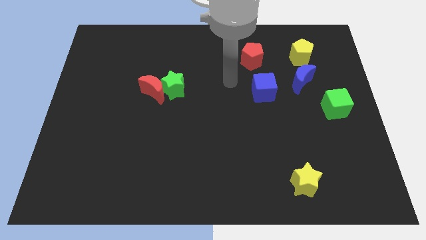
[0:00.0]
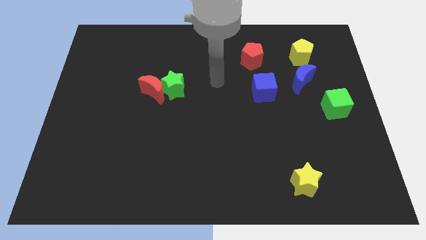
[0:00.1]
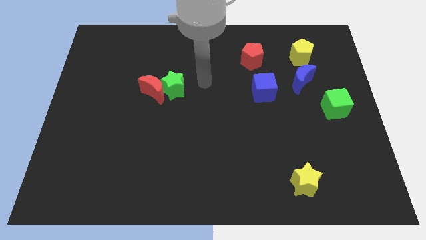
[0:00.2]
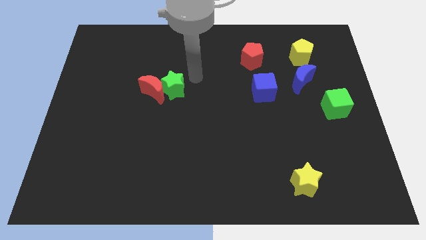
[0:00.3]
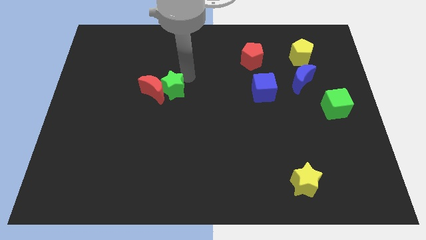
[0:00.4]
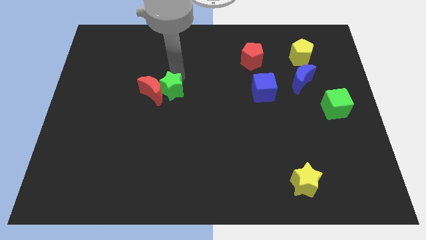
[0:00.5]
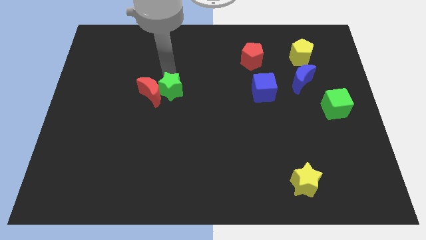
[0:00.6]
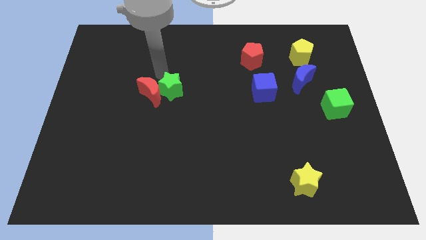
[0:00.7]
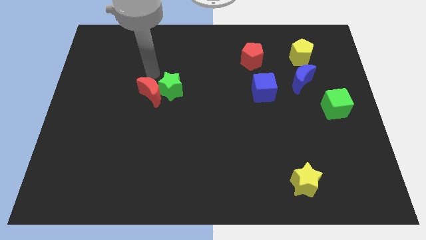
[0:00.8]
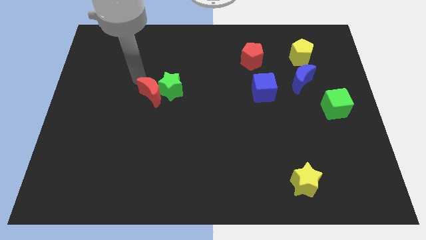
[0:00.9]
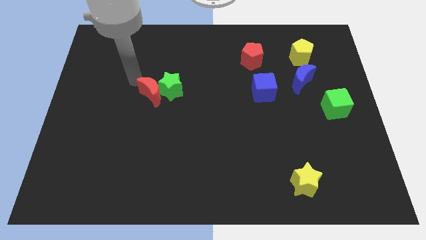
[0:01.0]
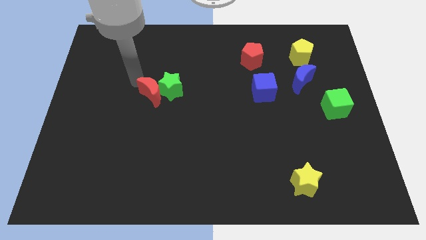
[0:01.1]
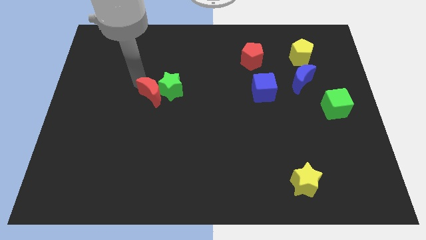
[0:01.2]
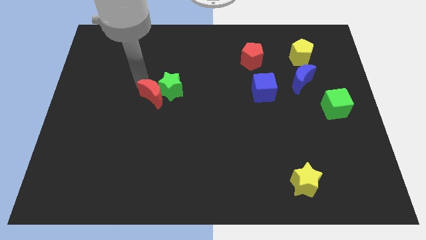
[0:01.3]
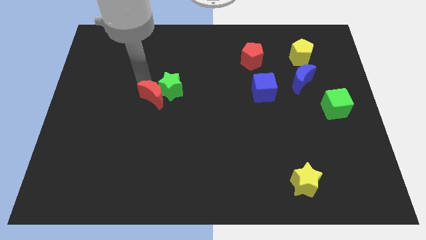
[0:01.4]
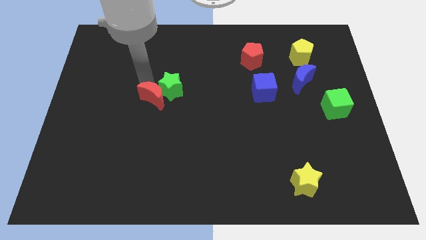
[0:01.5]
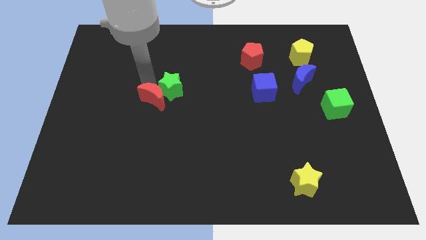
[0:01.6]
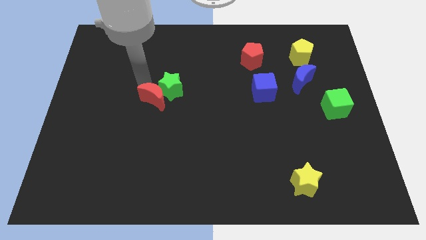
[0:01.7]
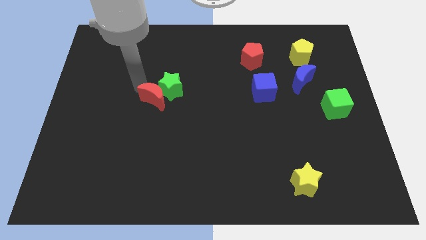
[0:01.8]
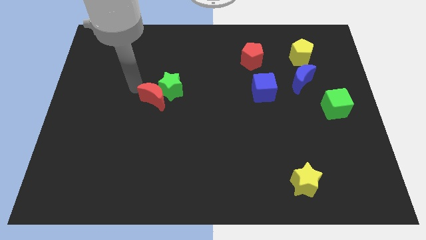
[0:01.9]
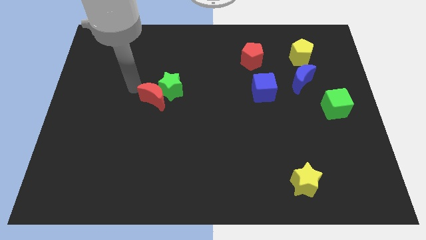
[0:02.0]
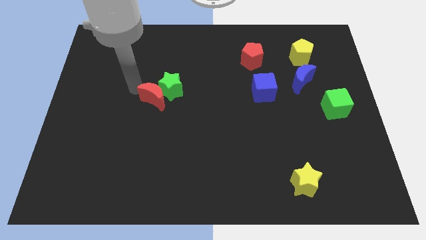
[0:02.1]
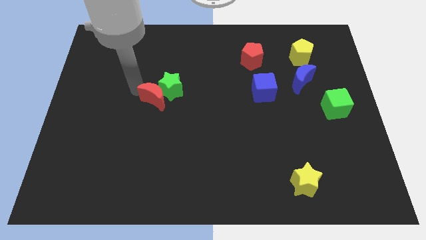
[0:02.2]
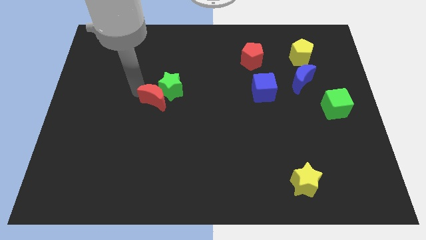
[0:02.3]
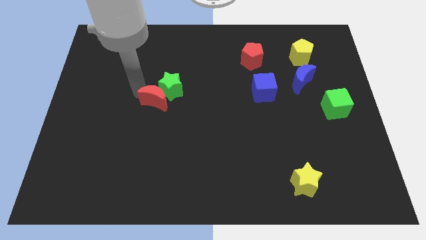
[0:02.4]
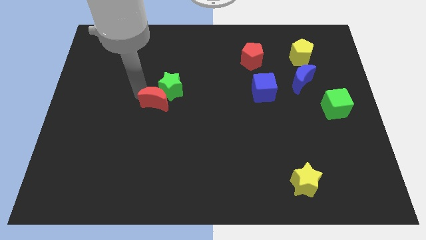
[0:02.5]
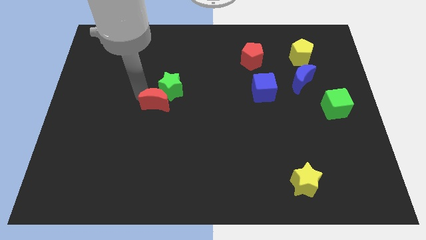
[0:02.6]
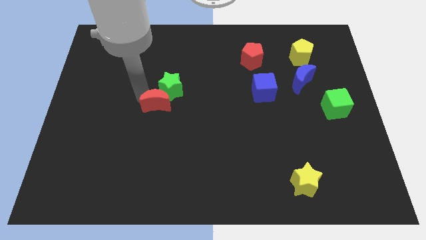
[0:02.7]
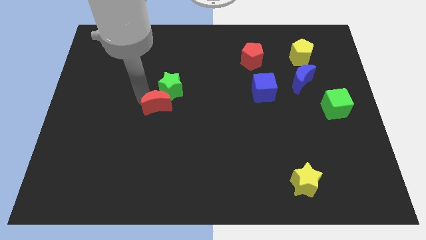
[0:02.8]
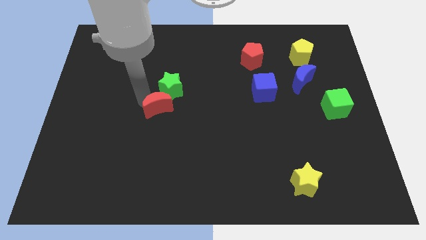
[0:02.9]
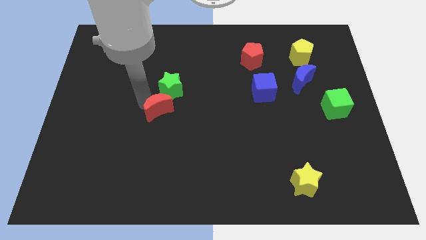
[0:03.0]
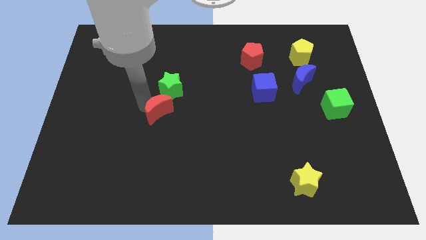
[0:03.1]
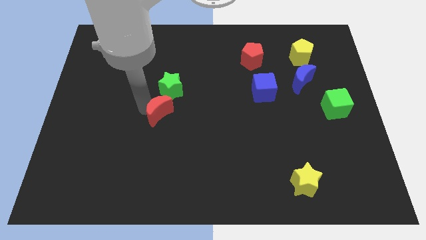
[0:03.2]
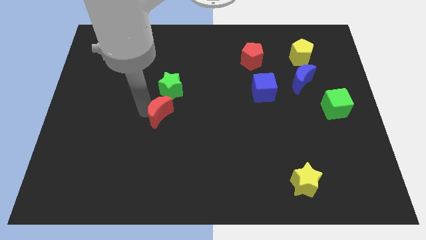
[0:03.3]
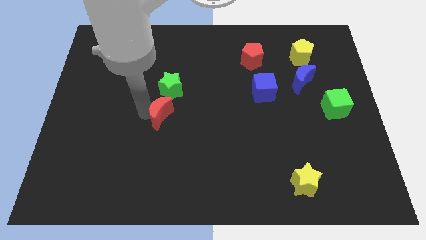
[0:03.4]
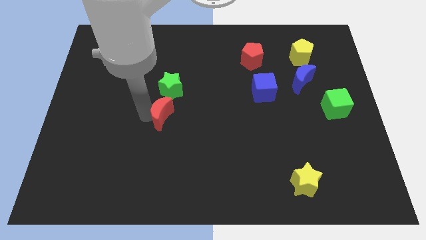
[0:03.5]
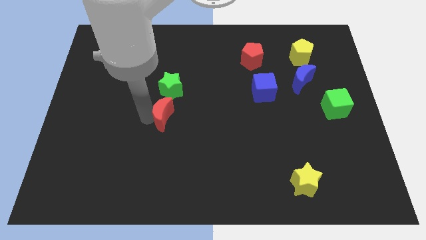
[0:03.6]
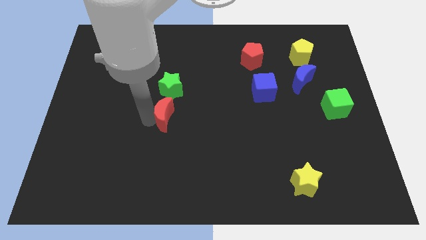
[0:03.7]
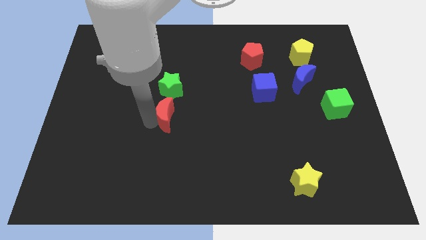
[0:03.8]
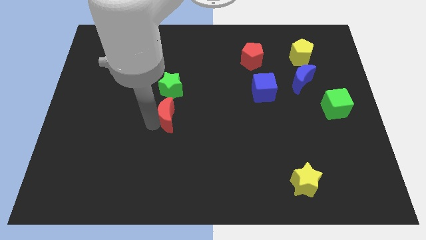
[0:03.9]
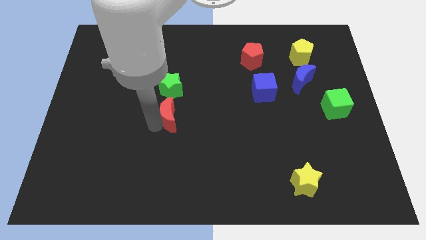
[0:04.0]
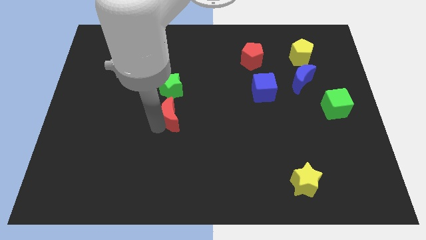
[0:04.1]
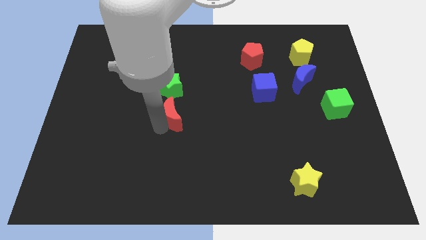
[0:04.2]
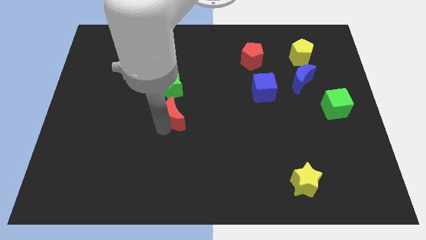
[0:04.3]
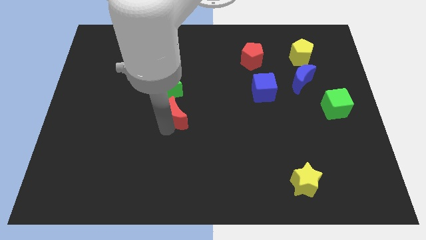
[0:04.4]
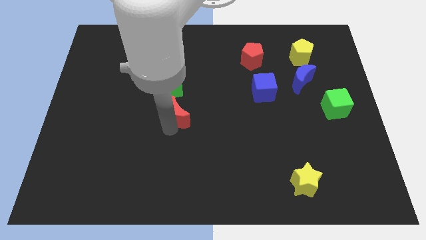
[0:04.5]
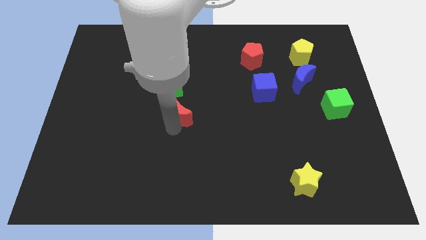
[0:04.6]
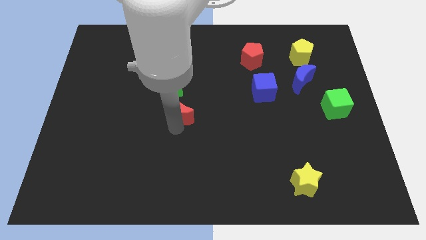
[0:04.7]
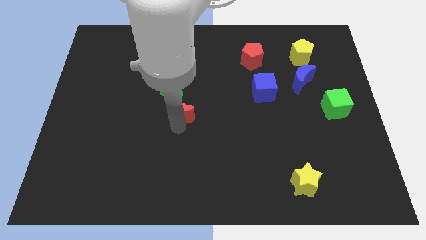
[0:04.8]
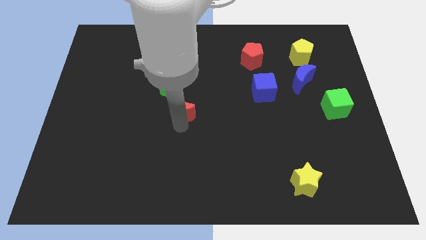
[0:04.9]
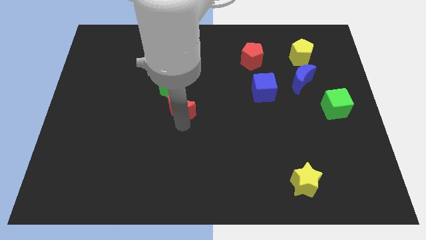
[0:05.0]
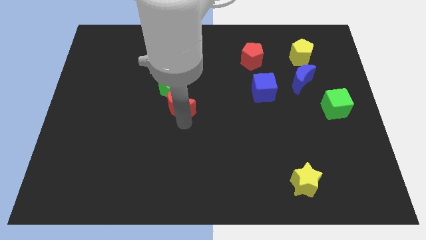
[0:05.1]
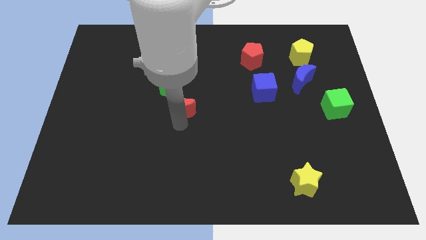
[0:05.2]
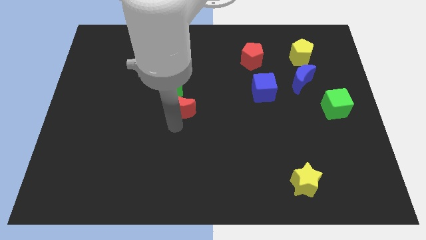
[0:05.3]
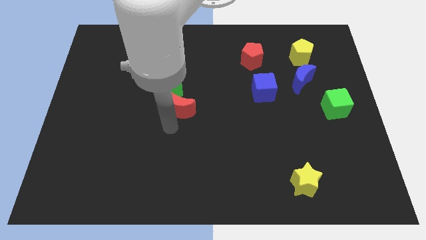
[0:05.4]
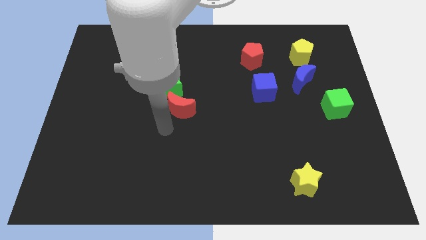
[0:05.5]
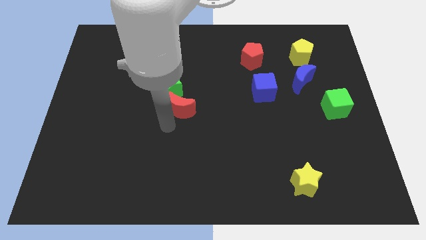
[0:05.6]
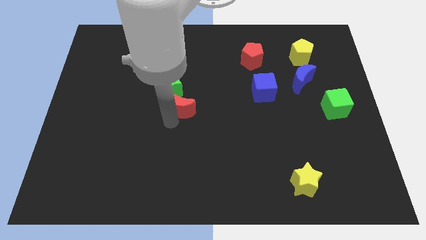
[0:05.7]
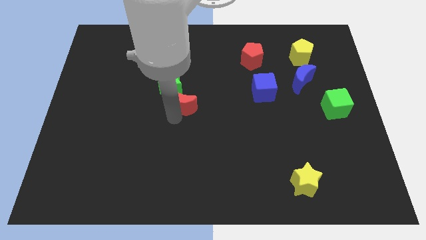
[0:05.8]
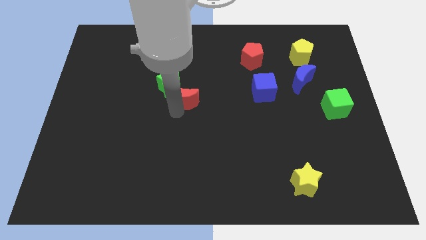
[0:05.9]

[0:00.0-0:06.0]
slide the red moon somewhat to the right

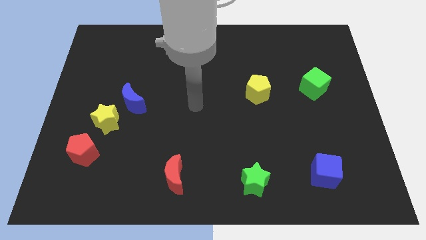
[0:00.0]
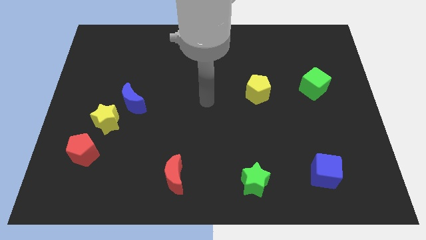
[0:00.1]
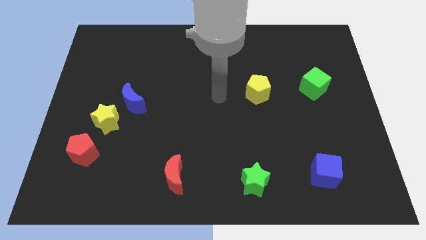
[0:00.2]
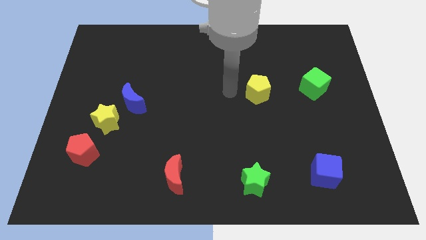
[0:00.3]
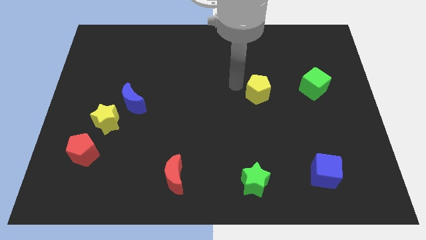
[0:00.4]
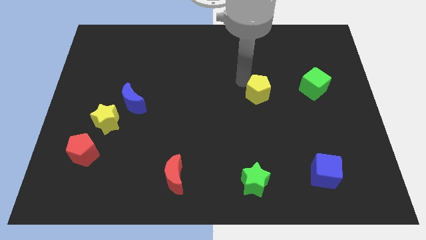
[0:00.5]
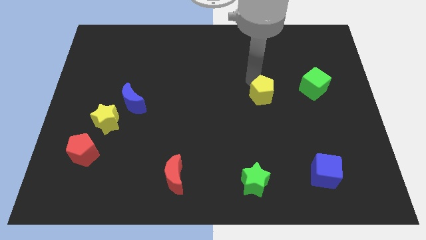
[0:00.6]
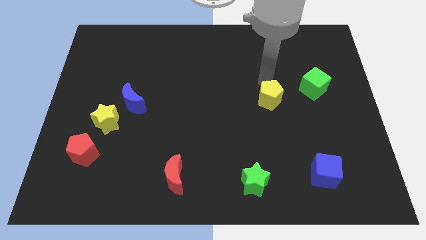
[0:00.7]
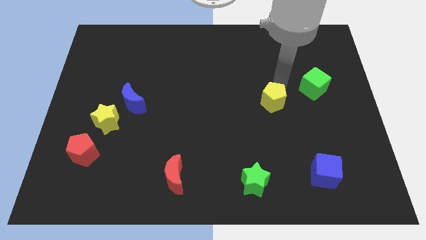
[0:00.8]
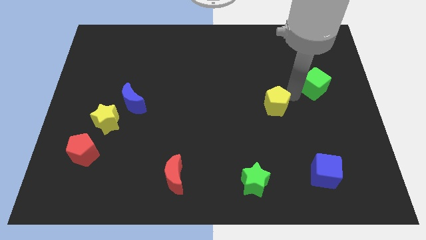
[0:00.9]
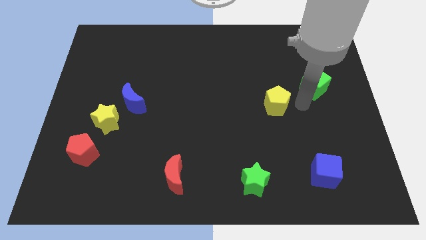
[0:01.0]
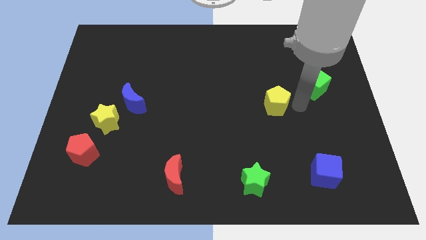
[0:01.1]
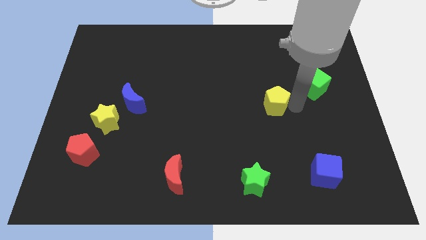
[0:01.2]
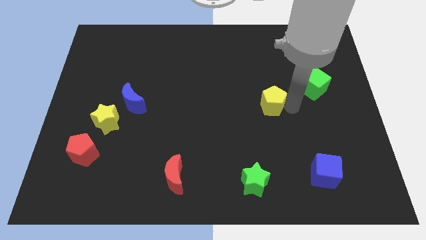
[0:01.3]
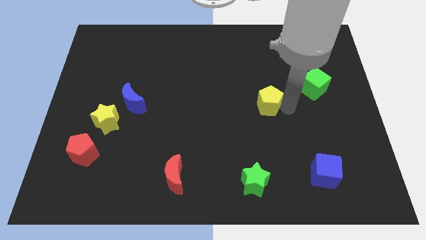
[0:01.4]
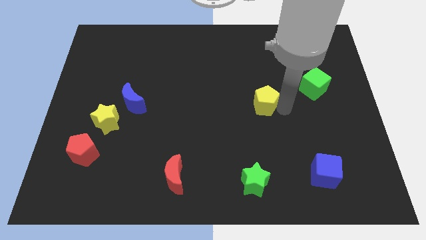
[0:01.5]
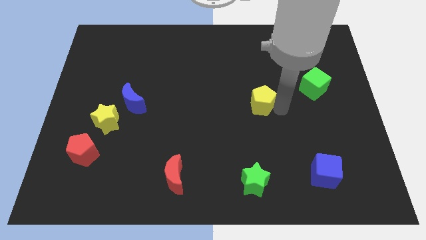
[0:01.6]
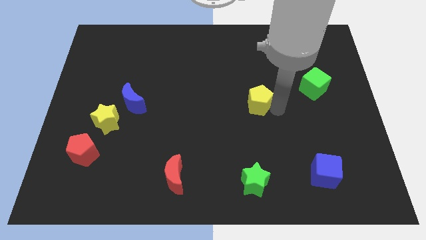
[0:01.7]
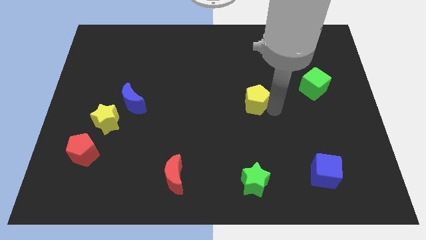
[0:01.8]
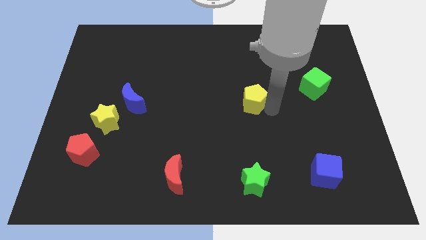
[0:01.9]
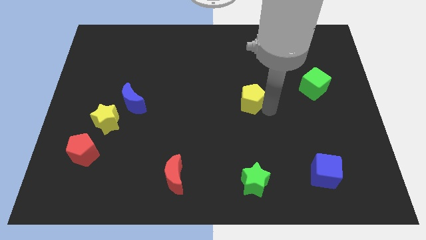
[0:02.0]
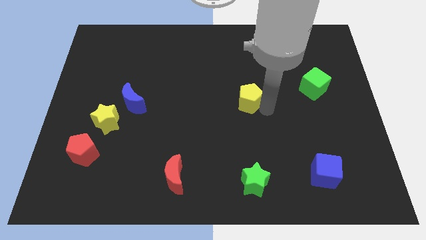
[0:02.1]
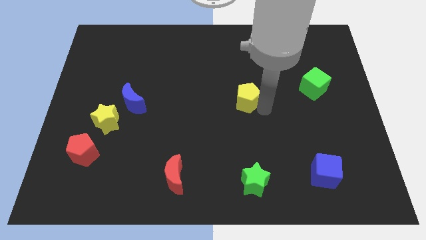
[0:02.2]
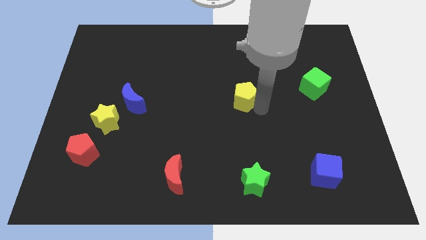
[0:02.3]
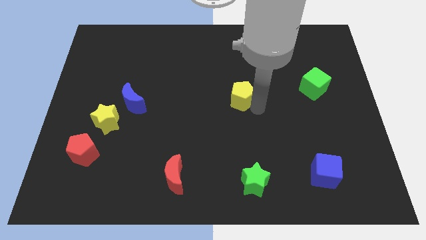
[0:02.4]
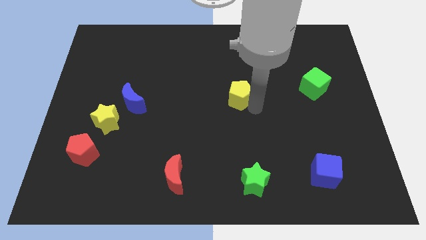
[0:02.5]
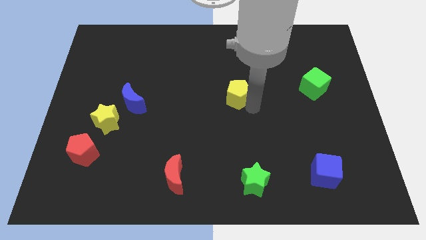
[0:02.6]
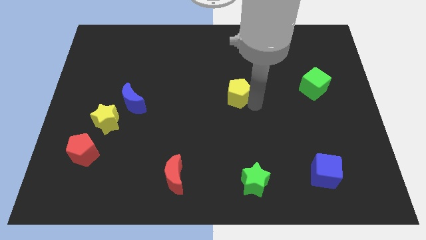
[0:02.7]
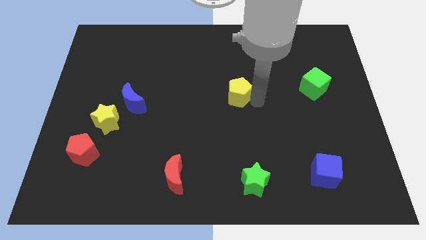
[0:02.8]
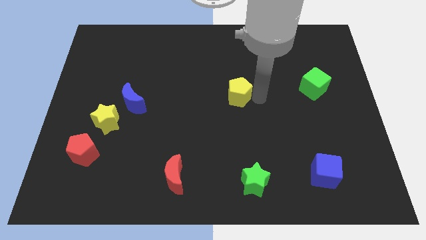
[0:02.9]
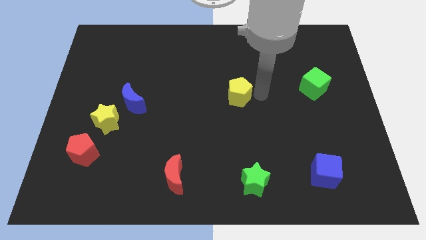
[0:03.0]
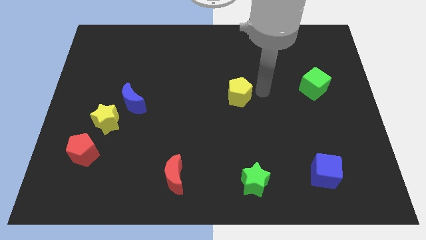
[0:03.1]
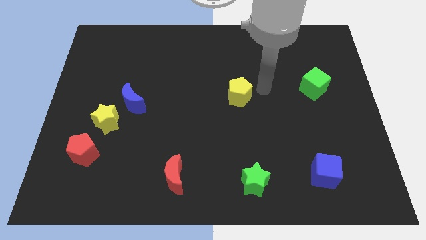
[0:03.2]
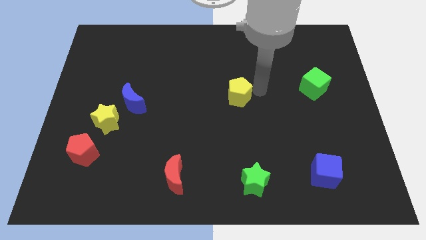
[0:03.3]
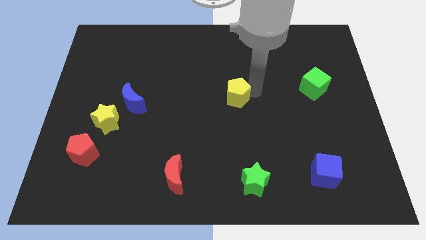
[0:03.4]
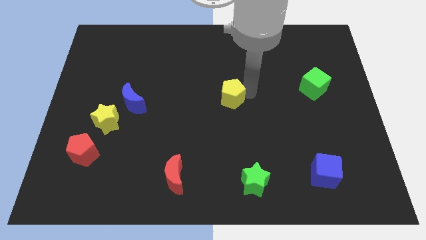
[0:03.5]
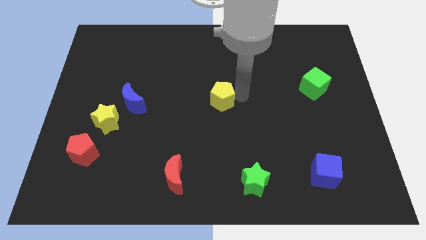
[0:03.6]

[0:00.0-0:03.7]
move the yellow pentagon a little bit left
